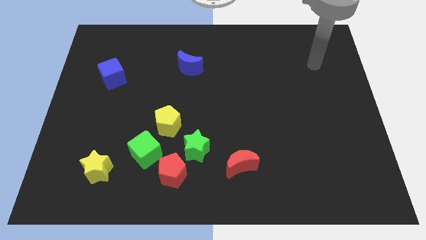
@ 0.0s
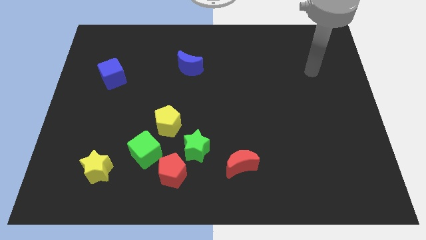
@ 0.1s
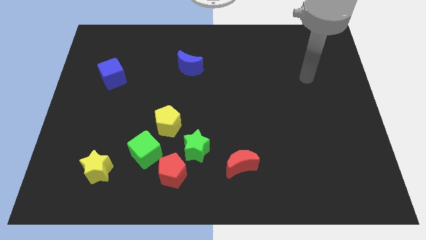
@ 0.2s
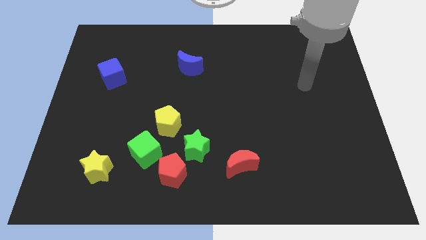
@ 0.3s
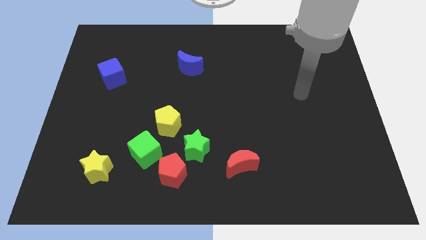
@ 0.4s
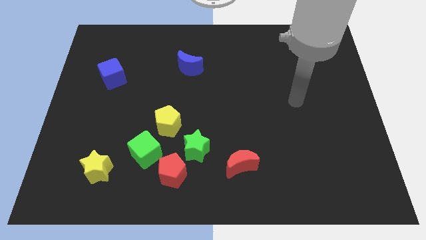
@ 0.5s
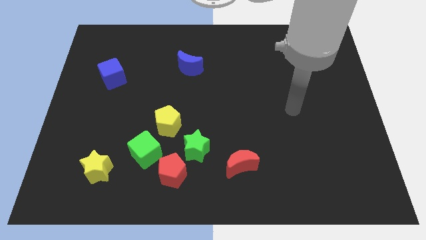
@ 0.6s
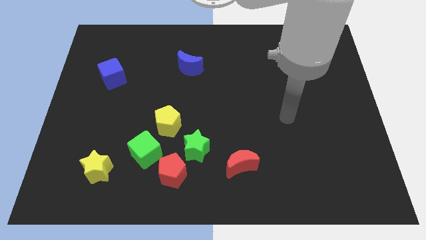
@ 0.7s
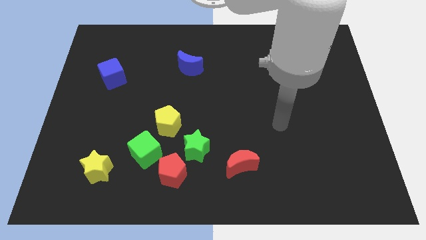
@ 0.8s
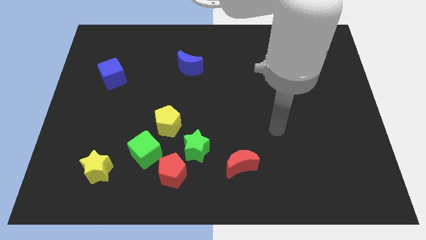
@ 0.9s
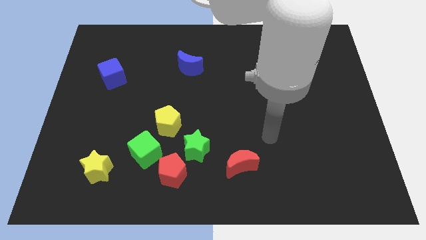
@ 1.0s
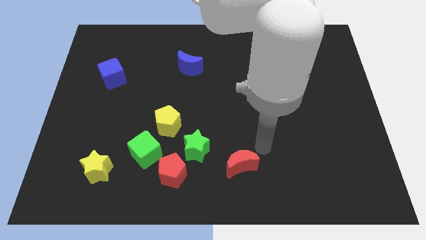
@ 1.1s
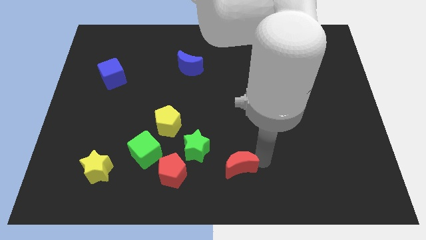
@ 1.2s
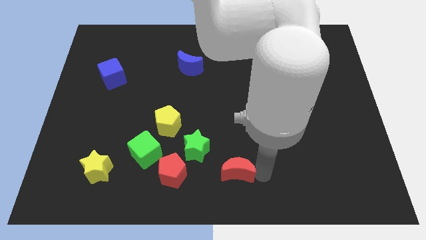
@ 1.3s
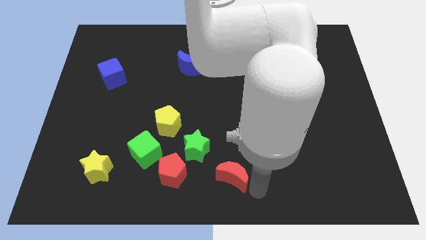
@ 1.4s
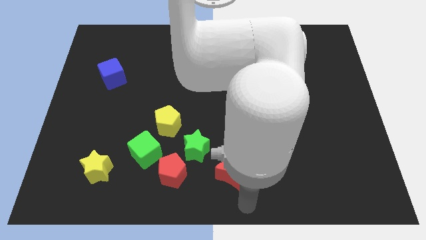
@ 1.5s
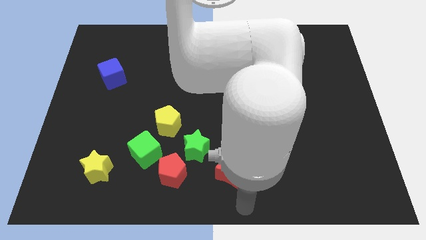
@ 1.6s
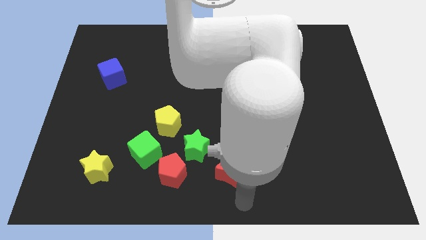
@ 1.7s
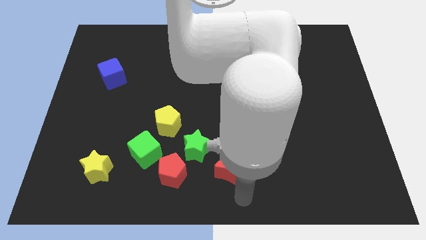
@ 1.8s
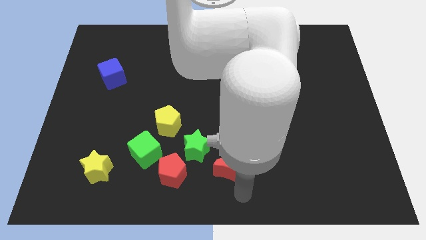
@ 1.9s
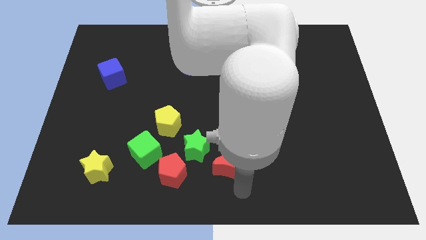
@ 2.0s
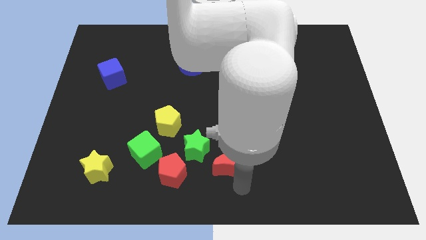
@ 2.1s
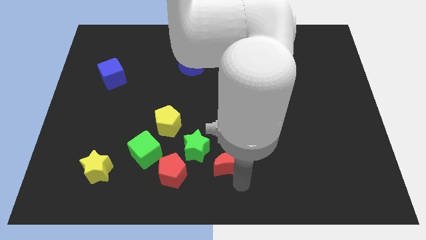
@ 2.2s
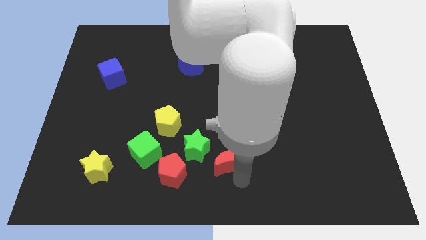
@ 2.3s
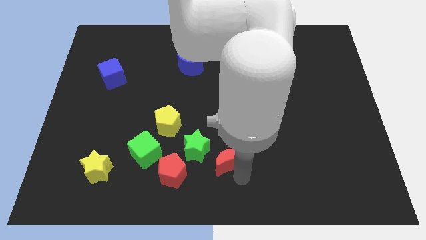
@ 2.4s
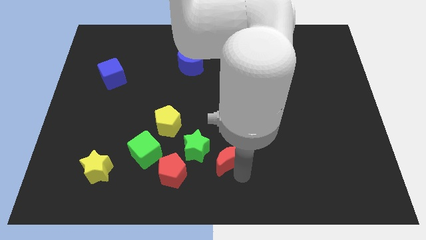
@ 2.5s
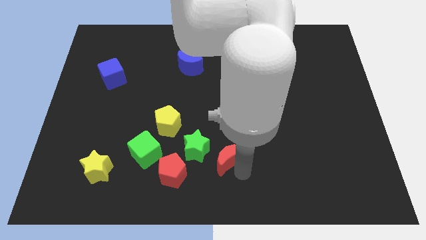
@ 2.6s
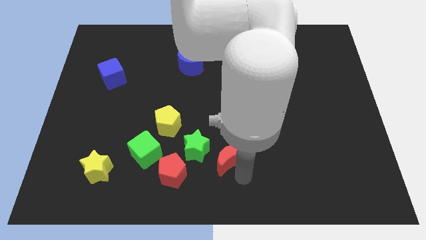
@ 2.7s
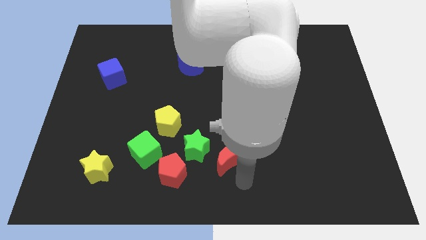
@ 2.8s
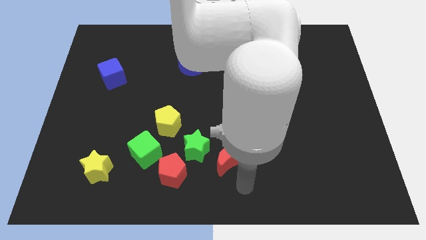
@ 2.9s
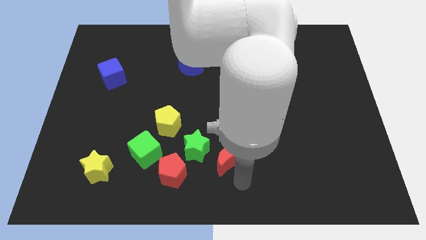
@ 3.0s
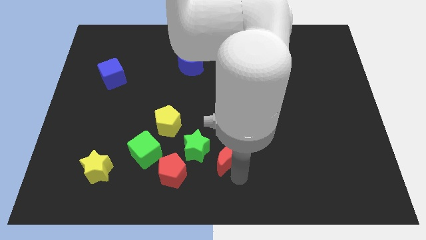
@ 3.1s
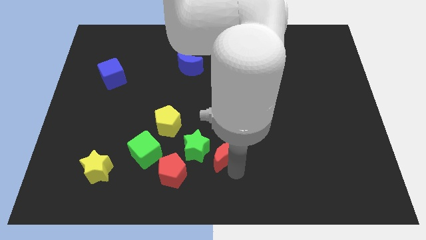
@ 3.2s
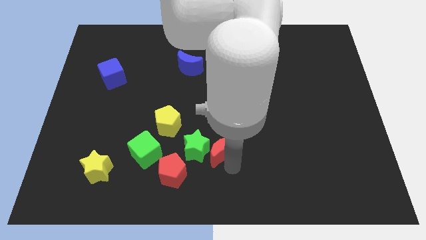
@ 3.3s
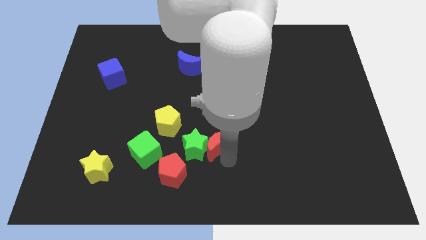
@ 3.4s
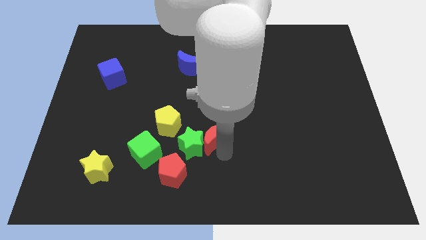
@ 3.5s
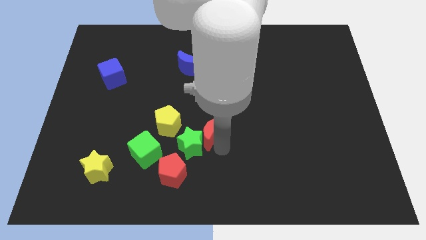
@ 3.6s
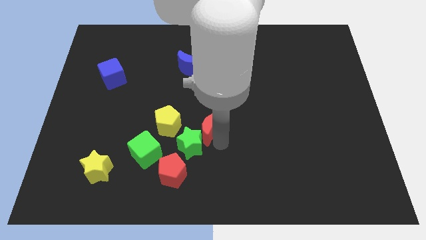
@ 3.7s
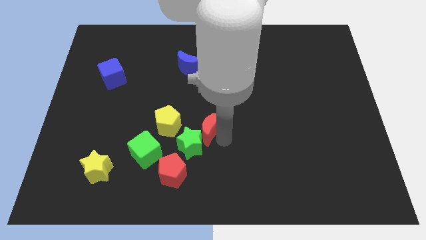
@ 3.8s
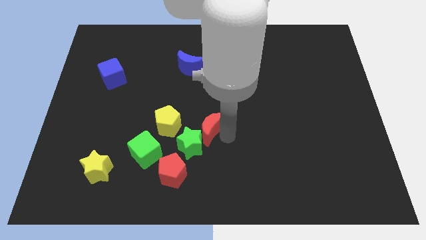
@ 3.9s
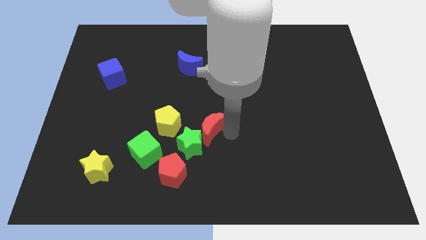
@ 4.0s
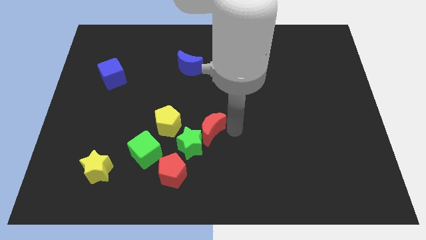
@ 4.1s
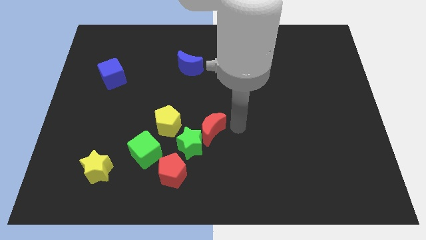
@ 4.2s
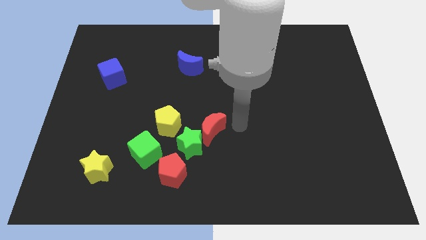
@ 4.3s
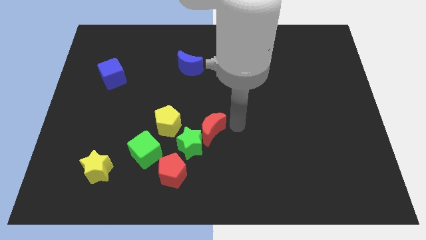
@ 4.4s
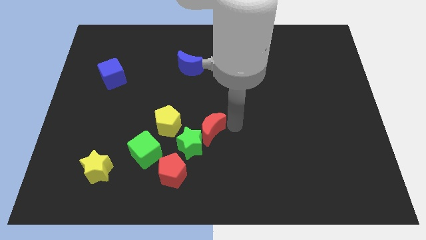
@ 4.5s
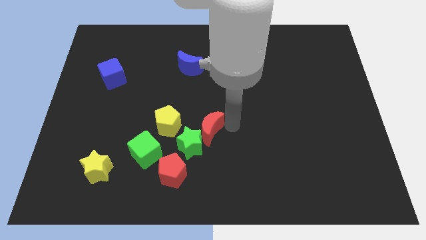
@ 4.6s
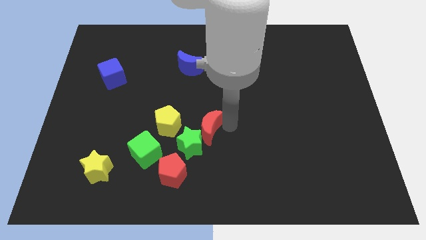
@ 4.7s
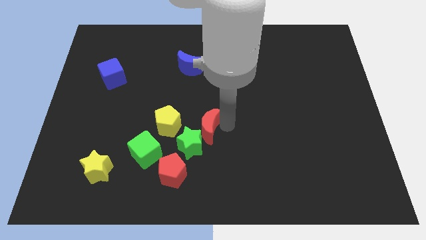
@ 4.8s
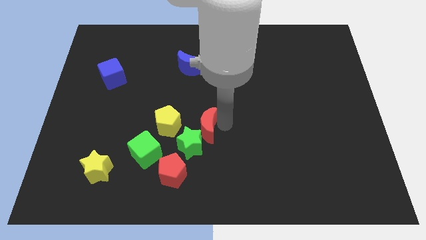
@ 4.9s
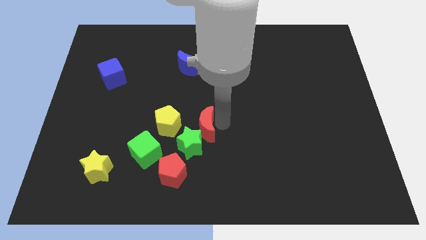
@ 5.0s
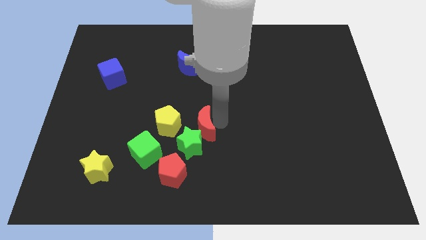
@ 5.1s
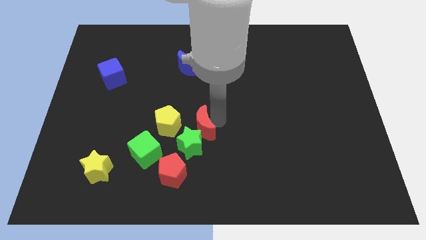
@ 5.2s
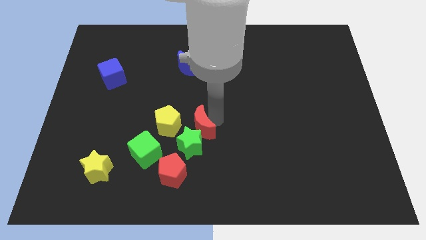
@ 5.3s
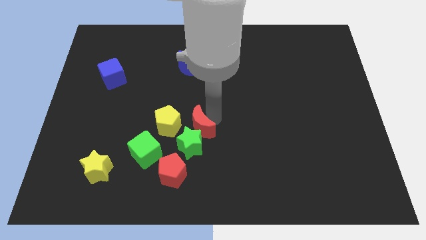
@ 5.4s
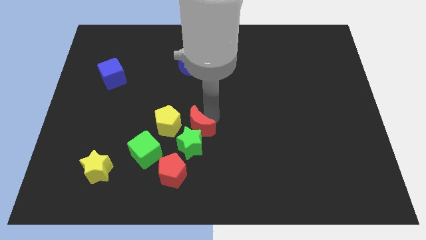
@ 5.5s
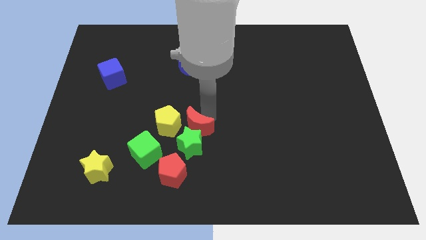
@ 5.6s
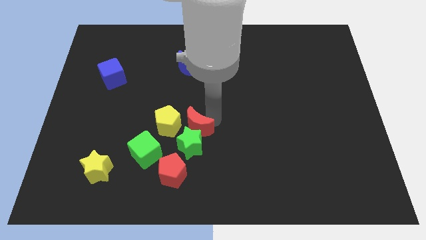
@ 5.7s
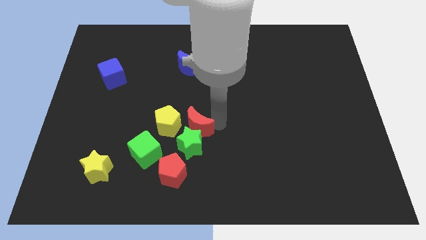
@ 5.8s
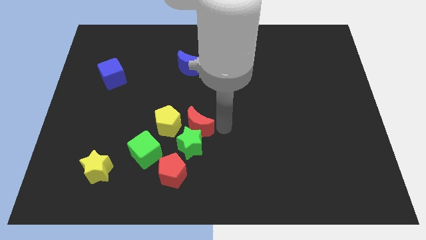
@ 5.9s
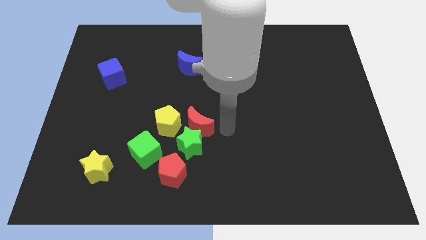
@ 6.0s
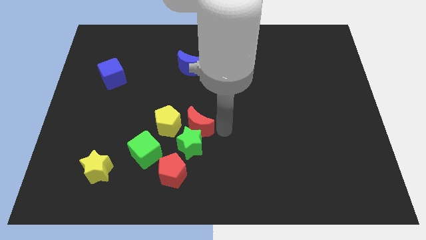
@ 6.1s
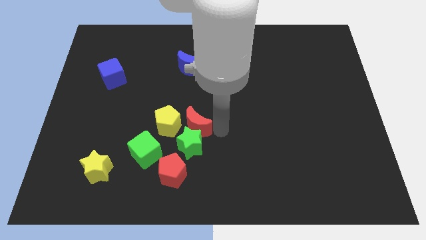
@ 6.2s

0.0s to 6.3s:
move the red moon towards the yellow pentagon

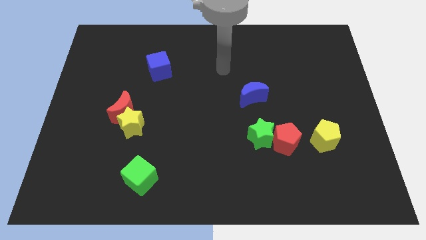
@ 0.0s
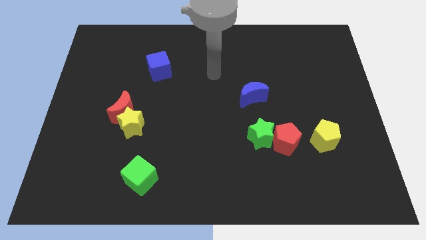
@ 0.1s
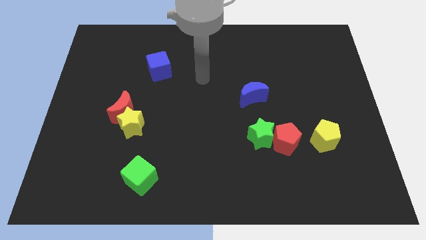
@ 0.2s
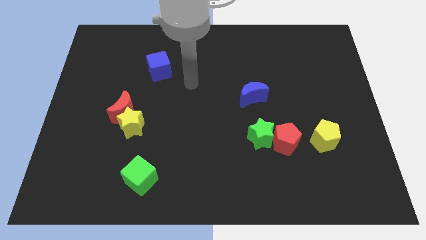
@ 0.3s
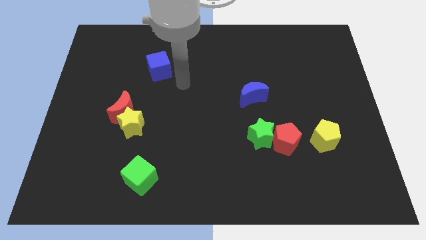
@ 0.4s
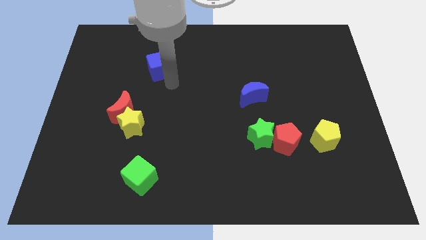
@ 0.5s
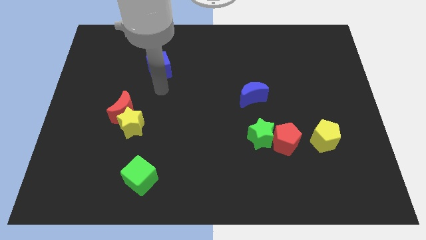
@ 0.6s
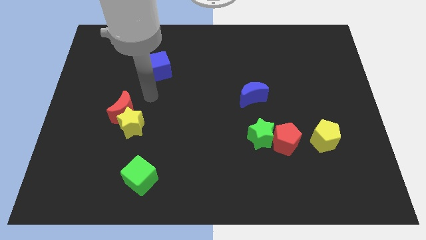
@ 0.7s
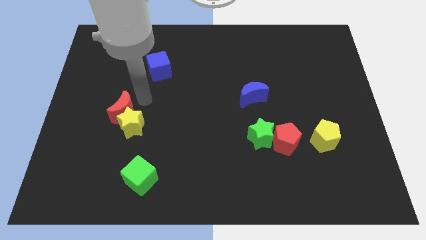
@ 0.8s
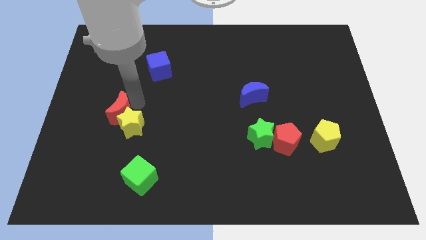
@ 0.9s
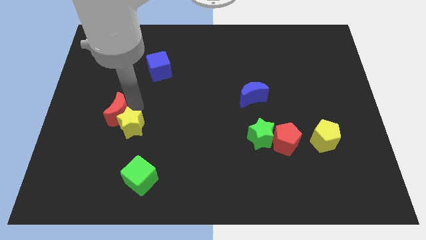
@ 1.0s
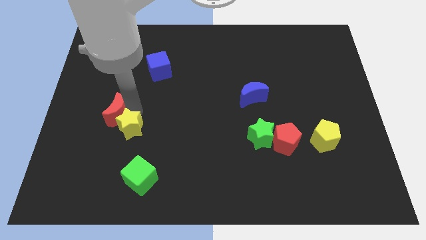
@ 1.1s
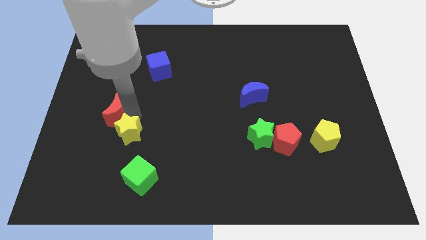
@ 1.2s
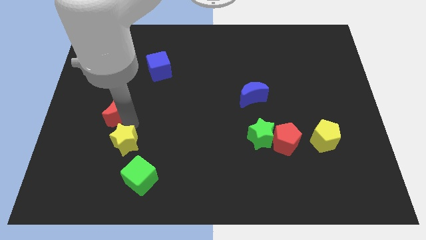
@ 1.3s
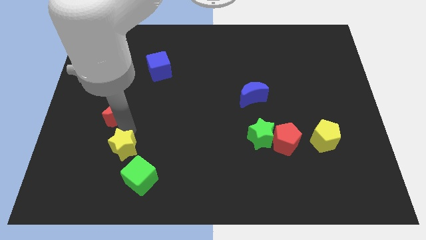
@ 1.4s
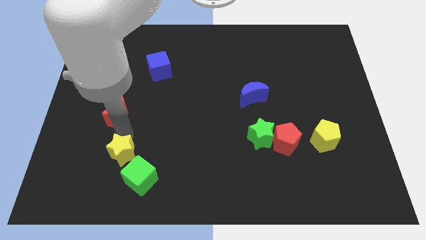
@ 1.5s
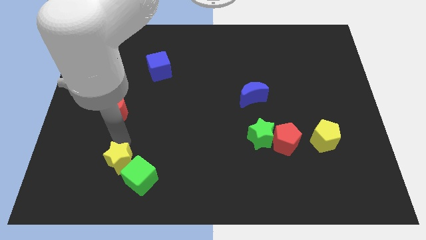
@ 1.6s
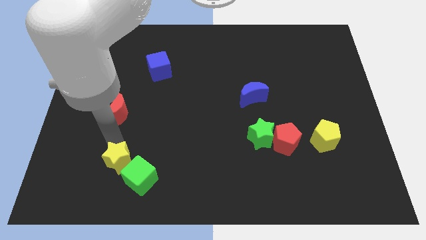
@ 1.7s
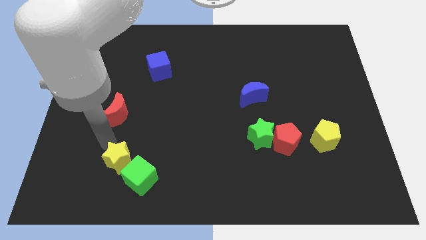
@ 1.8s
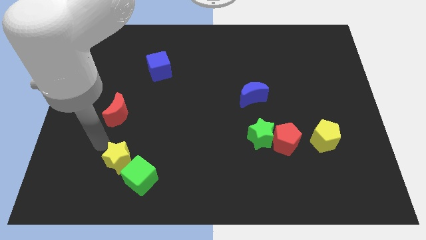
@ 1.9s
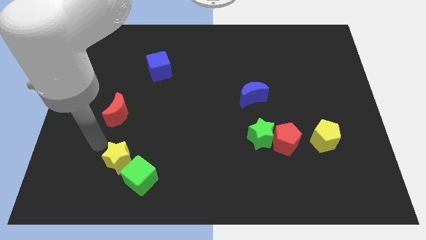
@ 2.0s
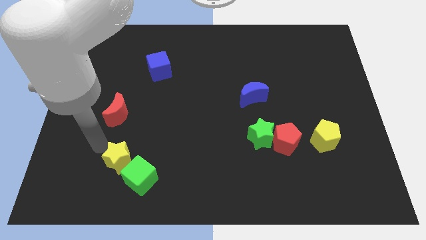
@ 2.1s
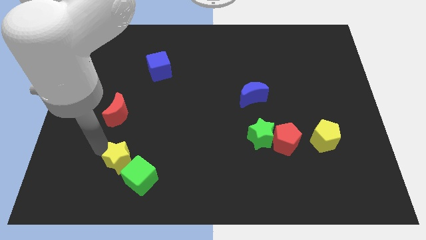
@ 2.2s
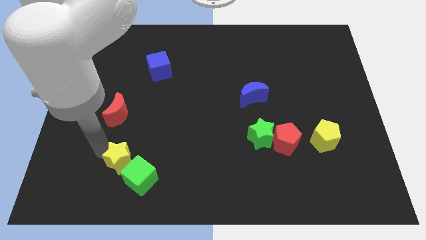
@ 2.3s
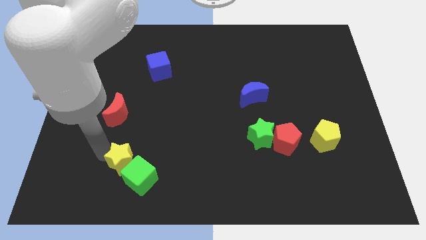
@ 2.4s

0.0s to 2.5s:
slide the yellow star to the green cube
